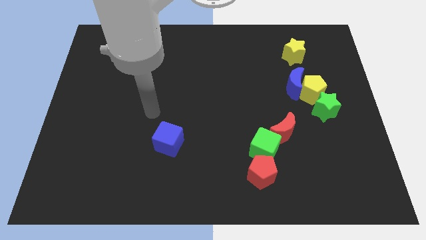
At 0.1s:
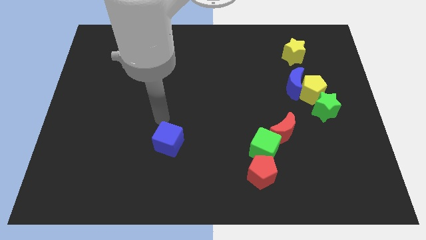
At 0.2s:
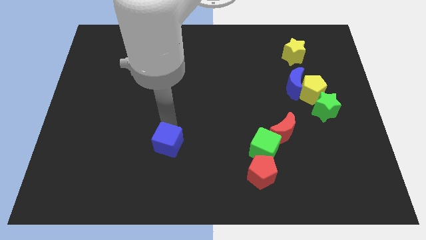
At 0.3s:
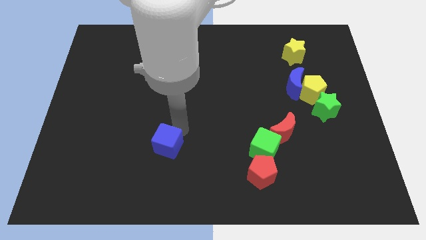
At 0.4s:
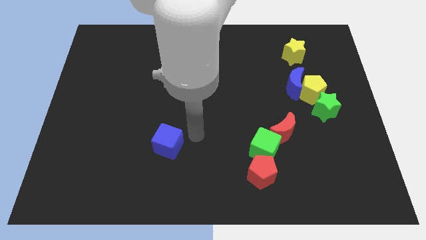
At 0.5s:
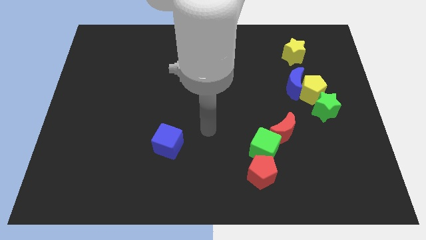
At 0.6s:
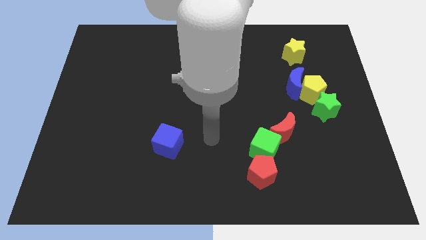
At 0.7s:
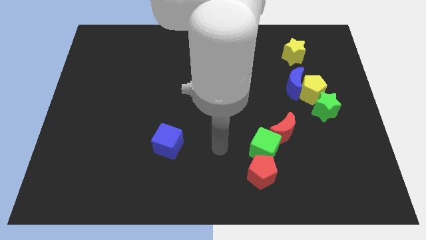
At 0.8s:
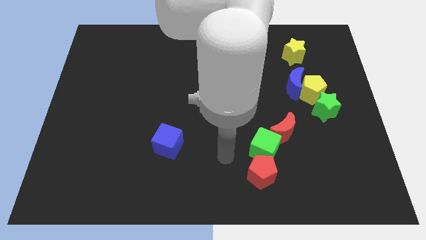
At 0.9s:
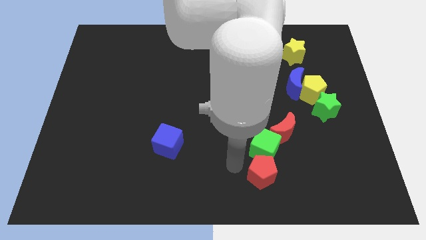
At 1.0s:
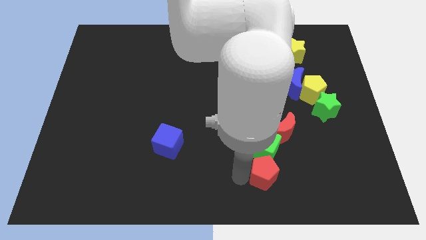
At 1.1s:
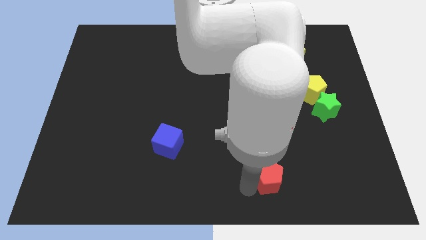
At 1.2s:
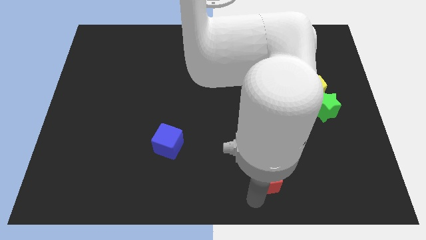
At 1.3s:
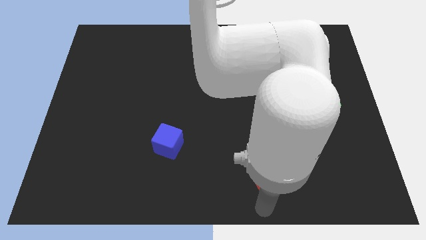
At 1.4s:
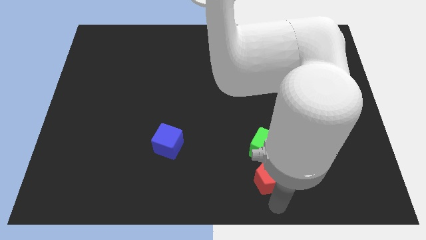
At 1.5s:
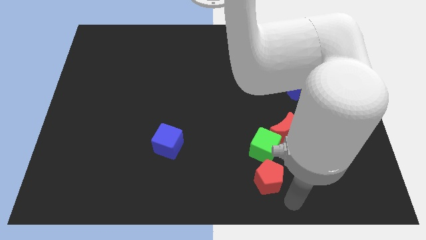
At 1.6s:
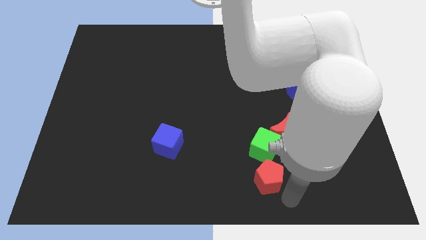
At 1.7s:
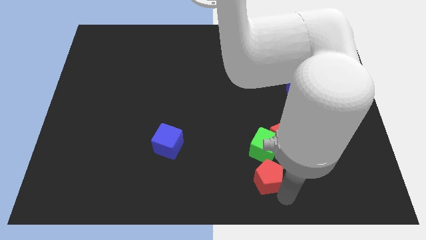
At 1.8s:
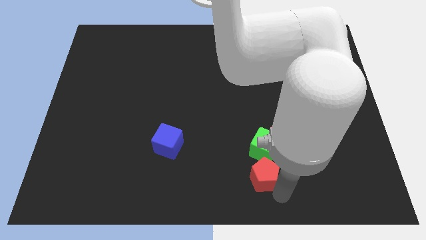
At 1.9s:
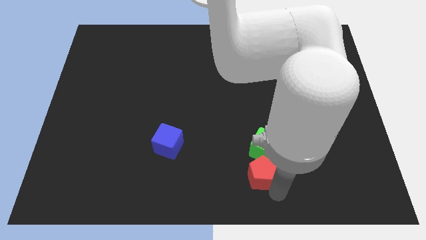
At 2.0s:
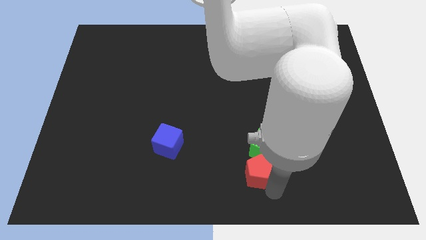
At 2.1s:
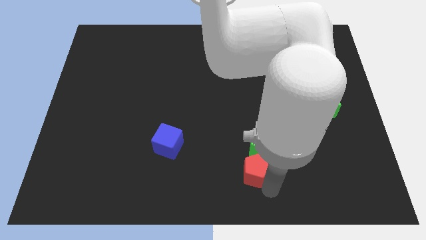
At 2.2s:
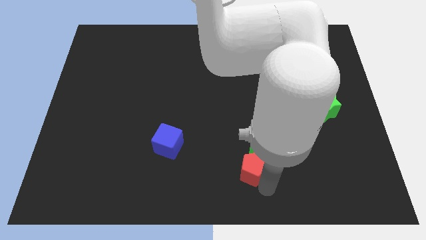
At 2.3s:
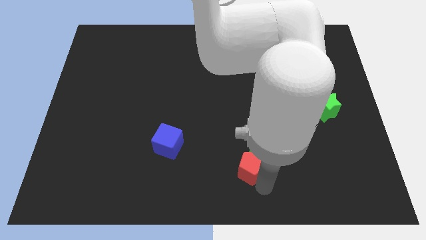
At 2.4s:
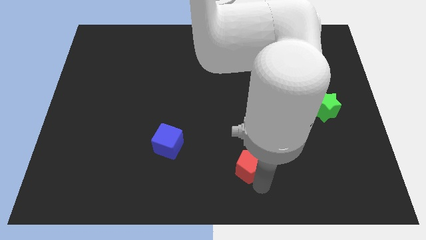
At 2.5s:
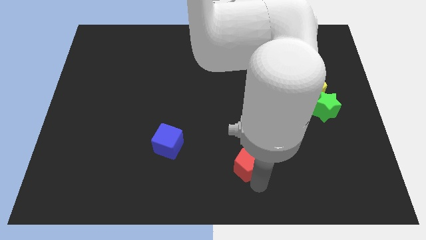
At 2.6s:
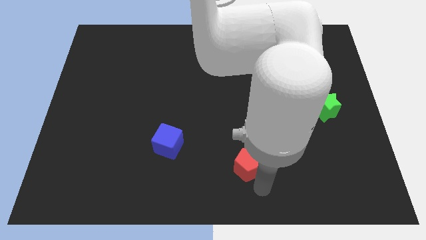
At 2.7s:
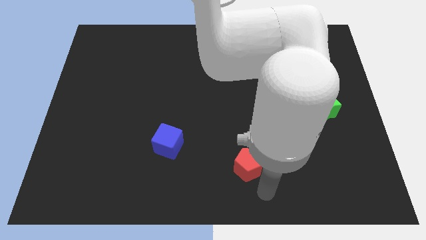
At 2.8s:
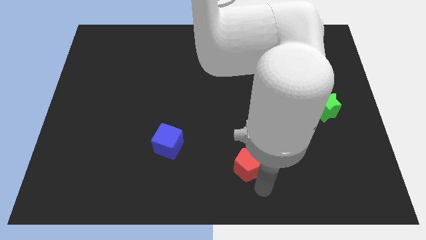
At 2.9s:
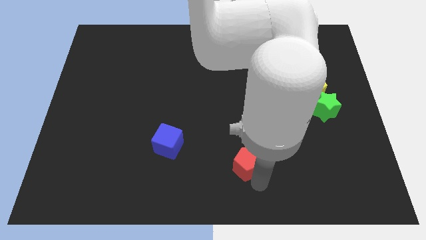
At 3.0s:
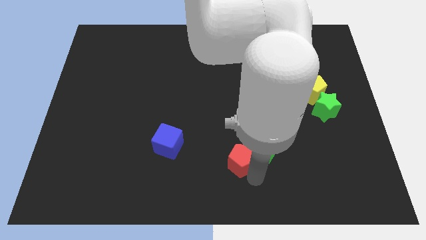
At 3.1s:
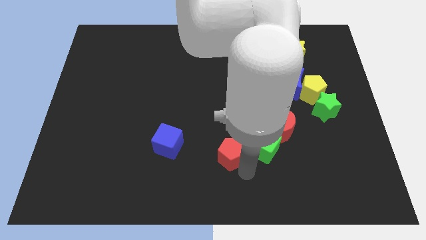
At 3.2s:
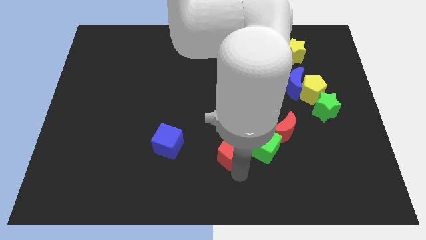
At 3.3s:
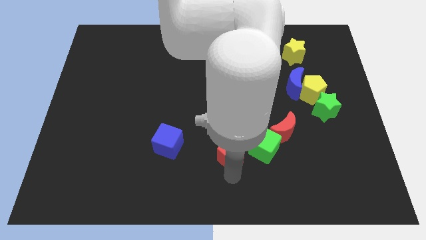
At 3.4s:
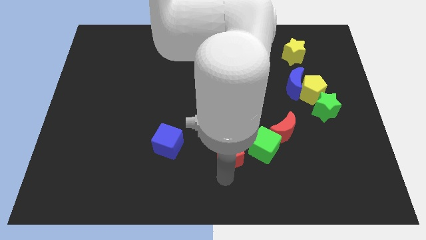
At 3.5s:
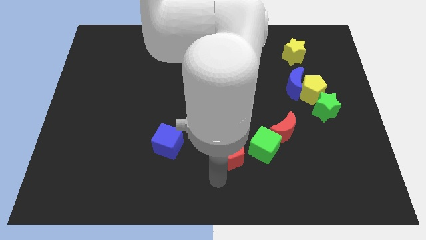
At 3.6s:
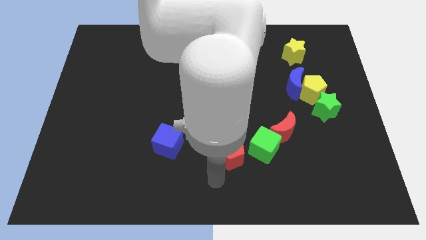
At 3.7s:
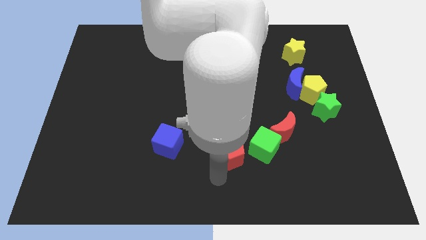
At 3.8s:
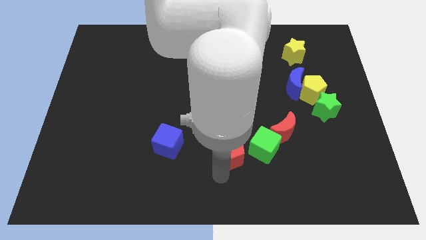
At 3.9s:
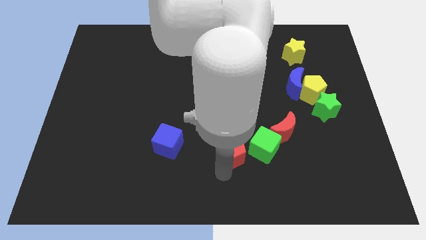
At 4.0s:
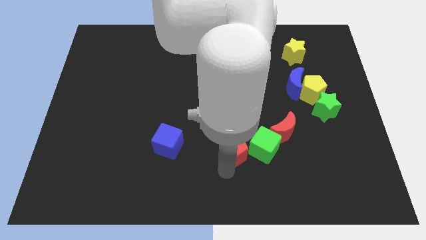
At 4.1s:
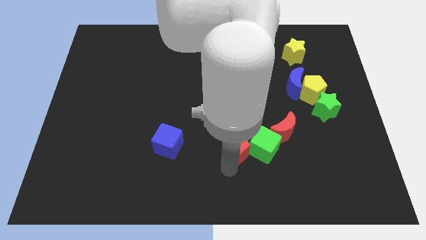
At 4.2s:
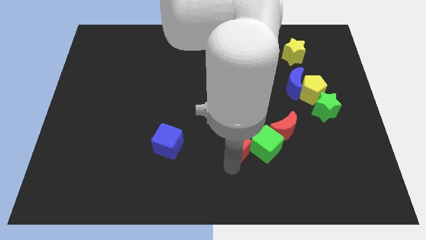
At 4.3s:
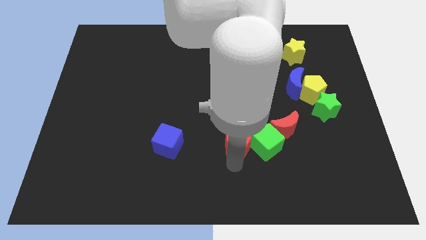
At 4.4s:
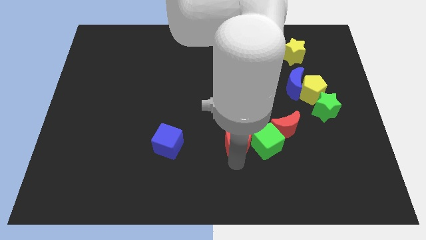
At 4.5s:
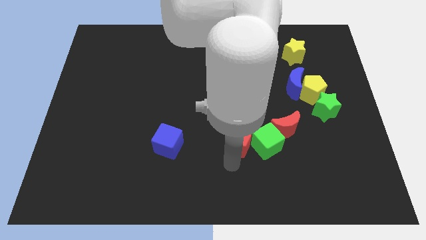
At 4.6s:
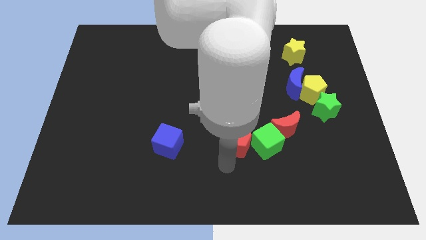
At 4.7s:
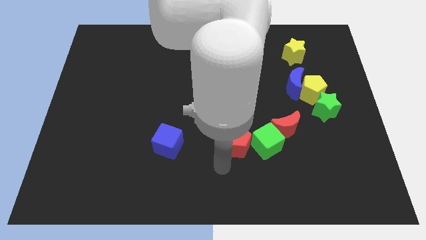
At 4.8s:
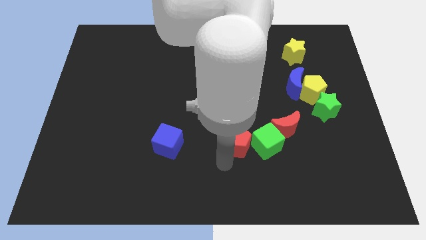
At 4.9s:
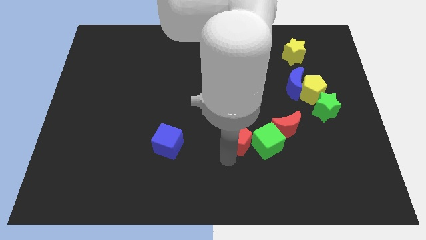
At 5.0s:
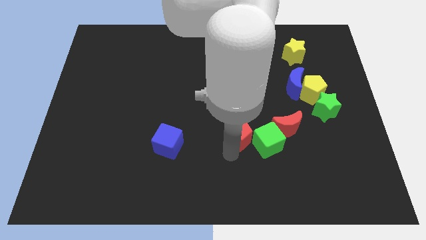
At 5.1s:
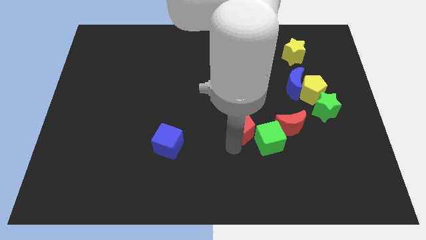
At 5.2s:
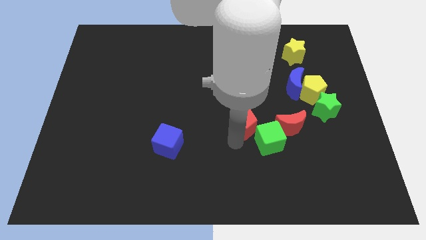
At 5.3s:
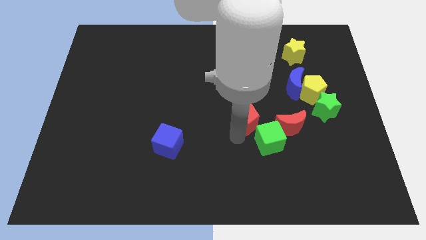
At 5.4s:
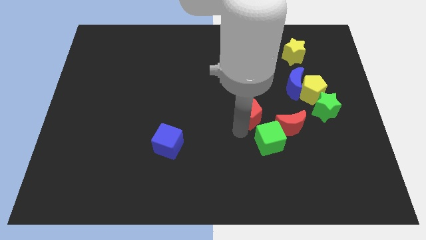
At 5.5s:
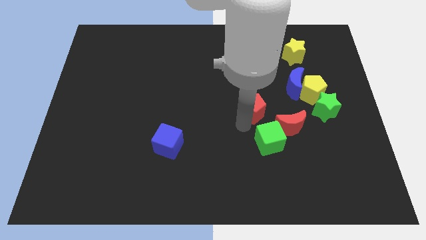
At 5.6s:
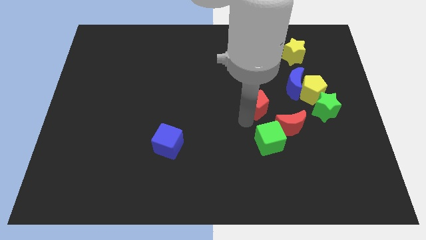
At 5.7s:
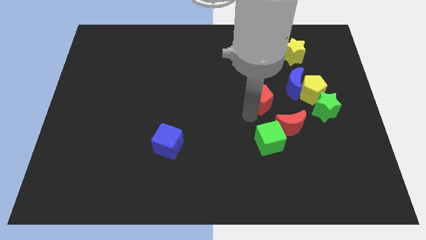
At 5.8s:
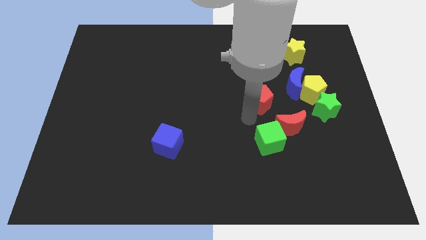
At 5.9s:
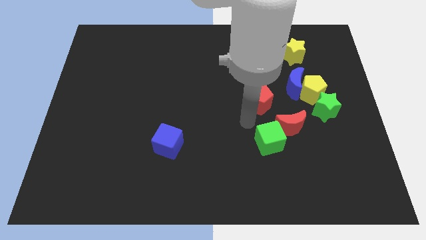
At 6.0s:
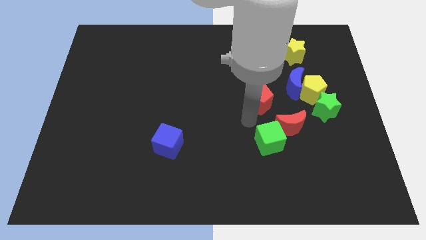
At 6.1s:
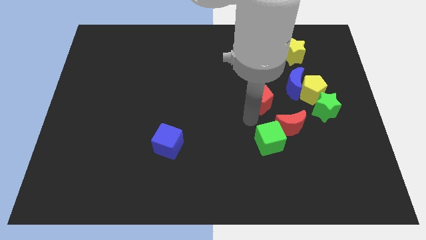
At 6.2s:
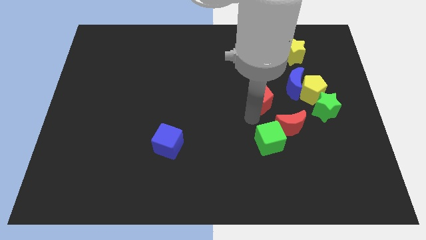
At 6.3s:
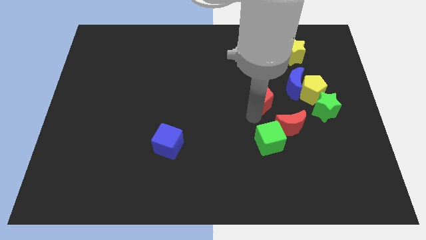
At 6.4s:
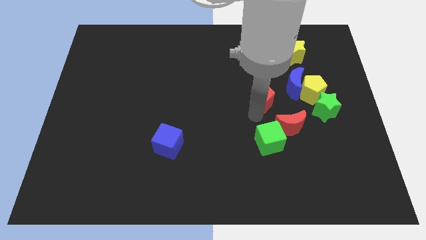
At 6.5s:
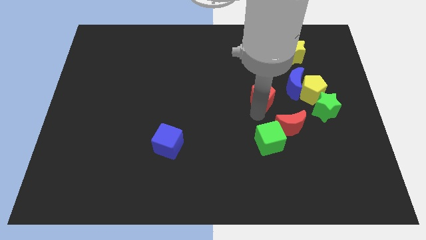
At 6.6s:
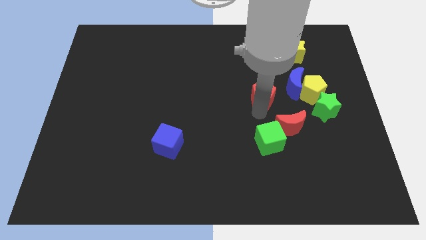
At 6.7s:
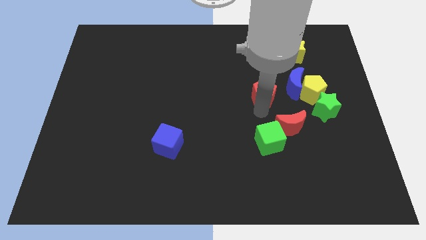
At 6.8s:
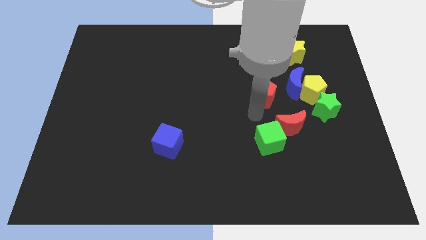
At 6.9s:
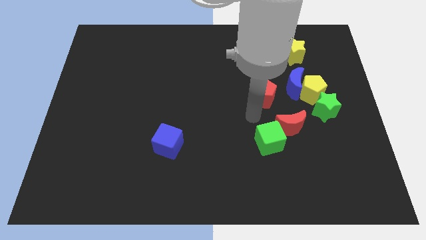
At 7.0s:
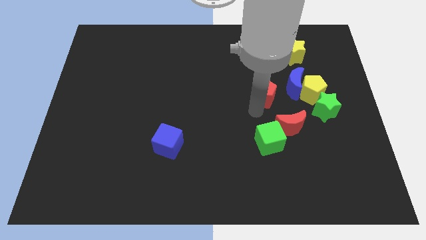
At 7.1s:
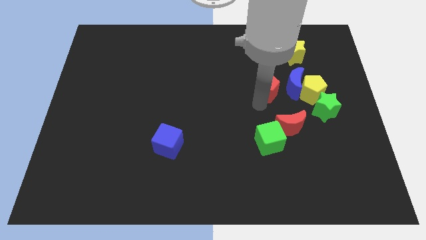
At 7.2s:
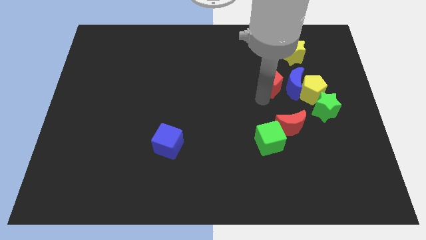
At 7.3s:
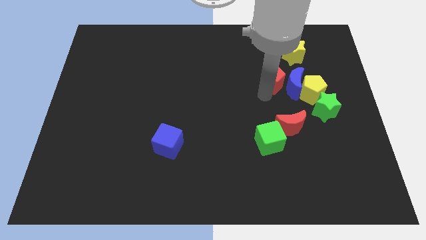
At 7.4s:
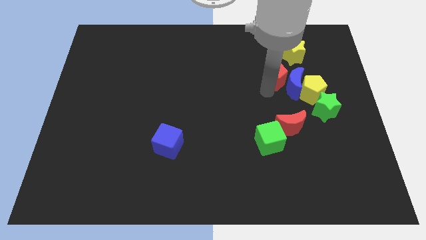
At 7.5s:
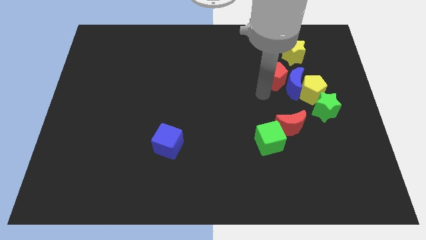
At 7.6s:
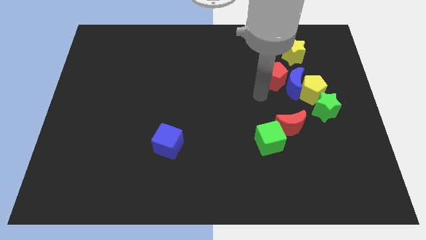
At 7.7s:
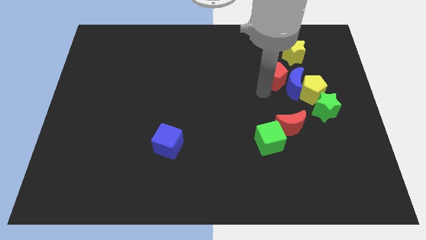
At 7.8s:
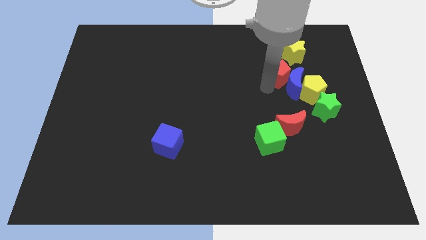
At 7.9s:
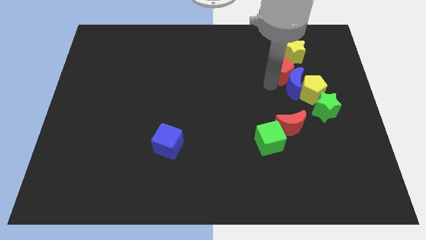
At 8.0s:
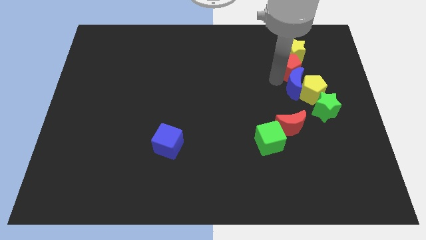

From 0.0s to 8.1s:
put the red pentagon next to the yellow star
